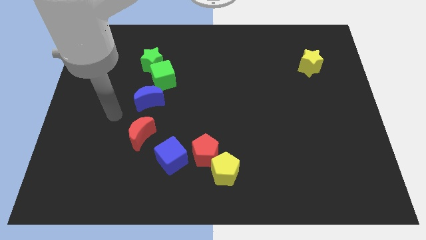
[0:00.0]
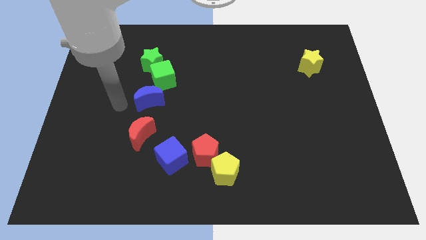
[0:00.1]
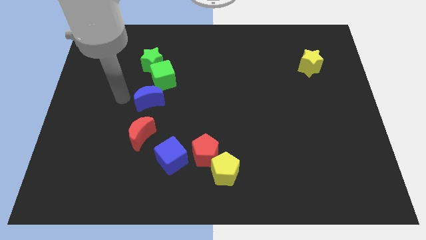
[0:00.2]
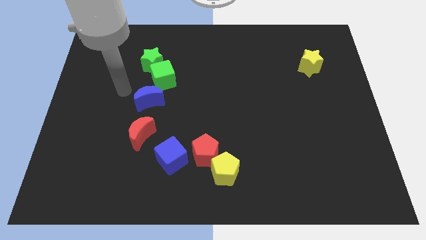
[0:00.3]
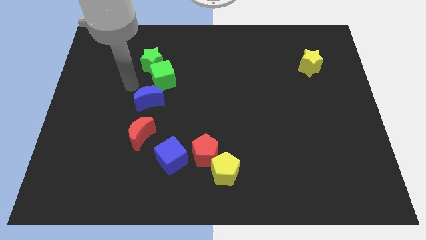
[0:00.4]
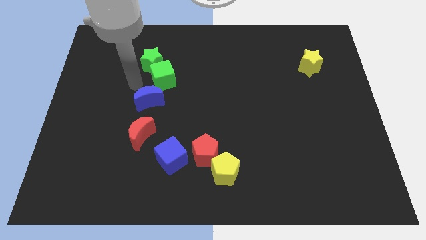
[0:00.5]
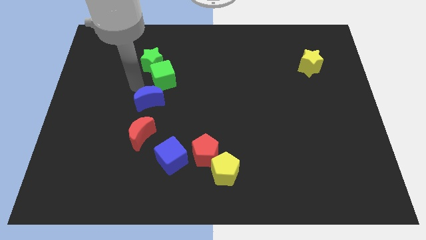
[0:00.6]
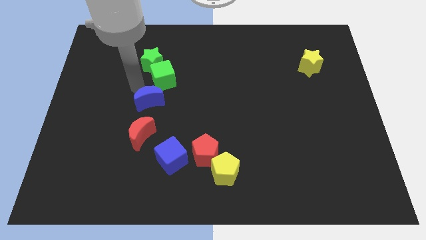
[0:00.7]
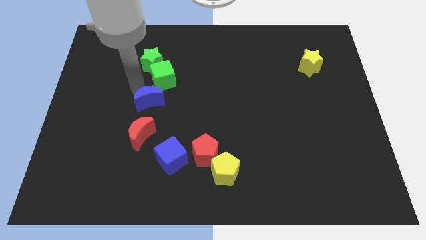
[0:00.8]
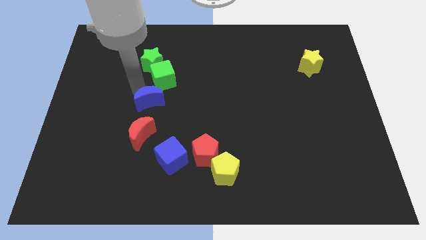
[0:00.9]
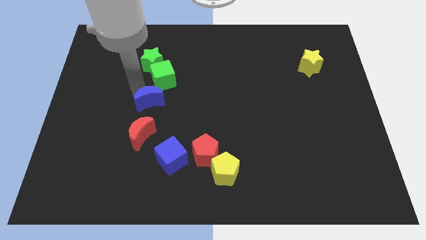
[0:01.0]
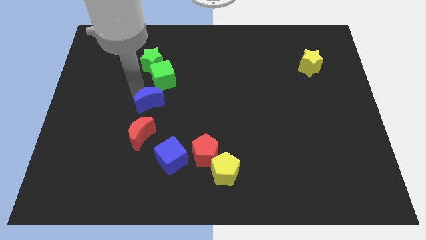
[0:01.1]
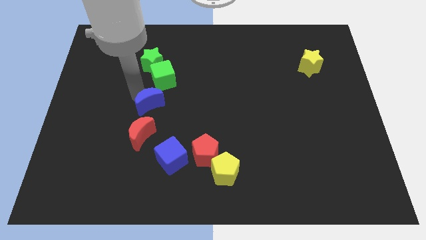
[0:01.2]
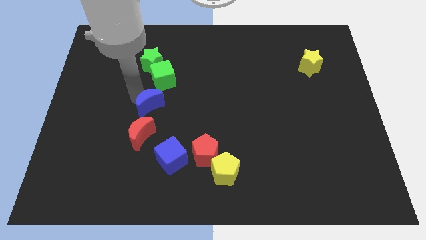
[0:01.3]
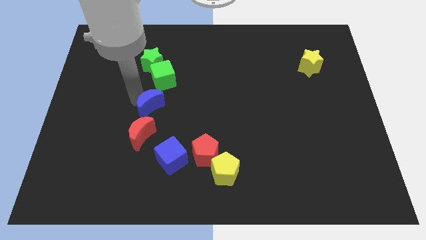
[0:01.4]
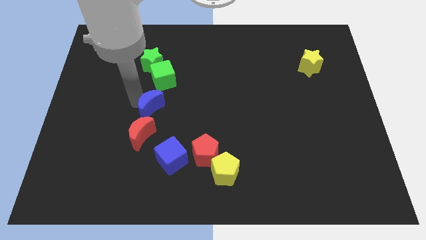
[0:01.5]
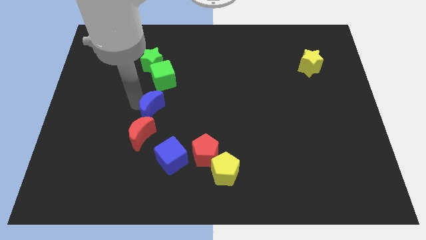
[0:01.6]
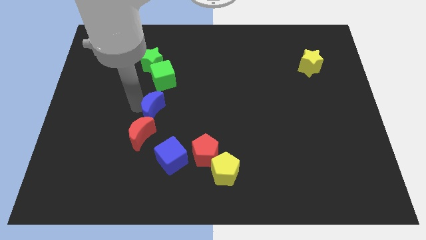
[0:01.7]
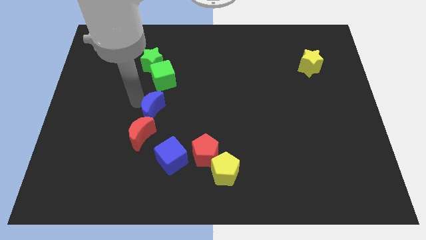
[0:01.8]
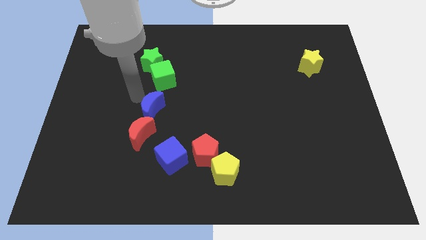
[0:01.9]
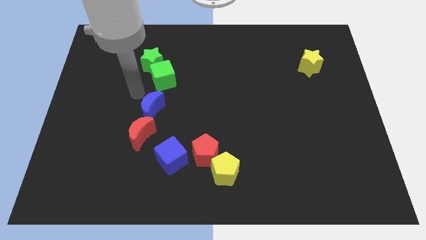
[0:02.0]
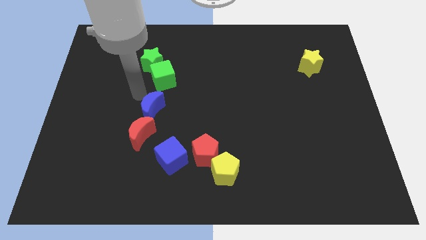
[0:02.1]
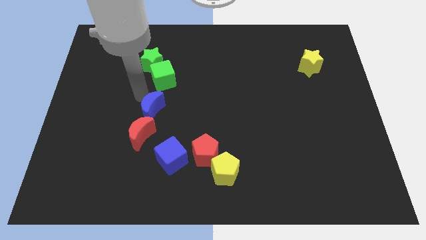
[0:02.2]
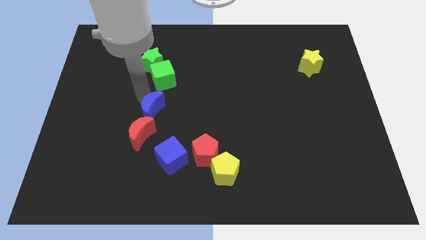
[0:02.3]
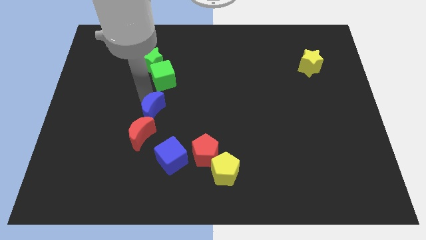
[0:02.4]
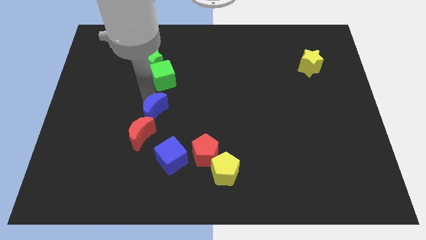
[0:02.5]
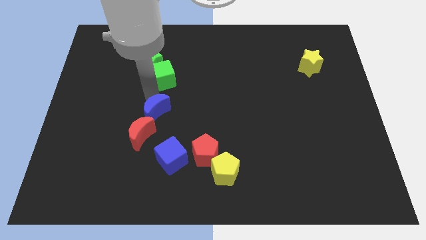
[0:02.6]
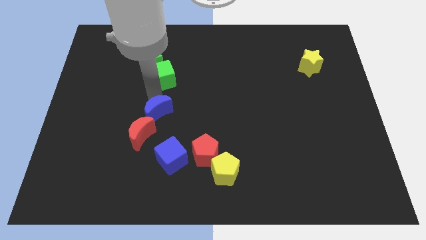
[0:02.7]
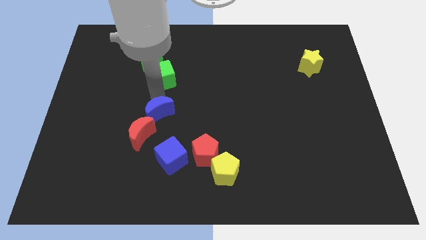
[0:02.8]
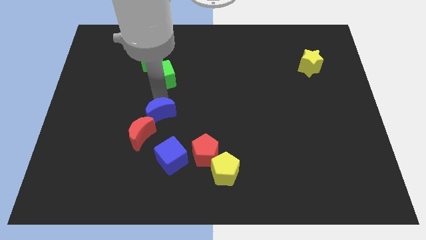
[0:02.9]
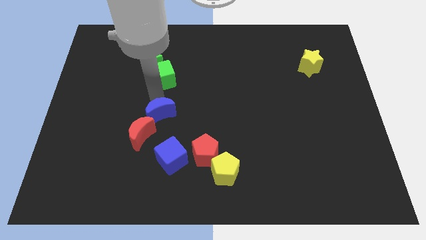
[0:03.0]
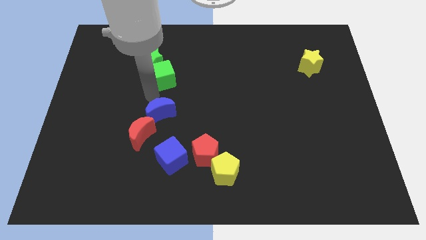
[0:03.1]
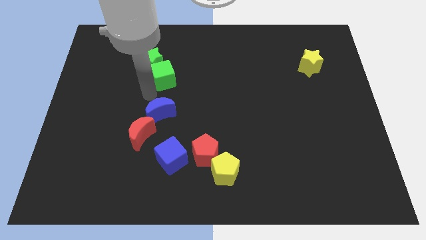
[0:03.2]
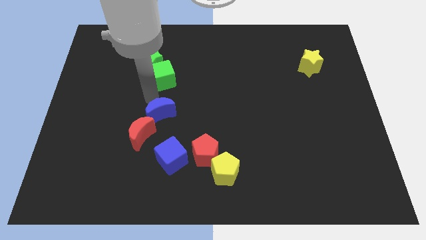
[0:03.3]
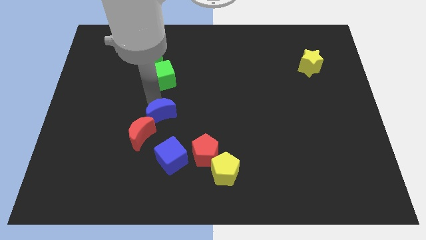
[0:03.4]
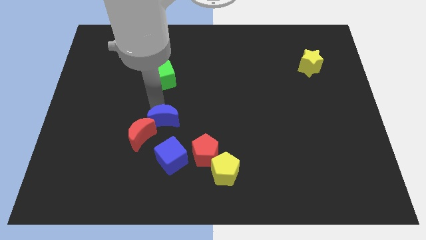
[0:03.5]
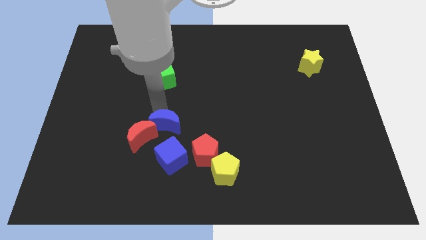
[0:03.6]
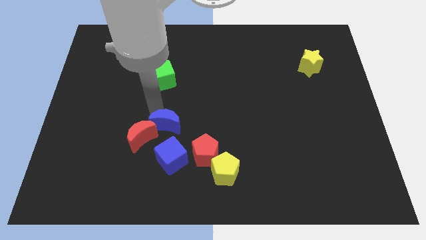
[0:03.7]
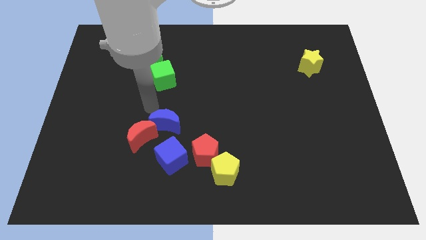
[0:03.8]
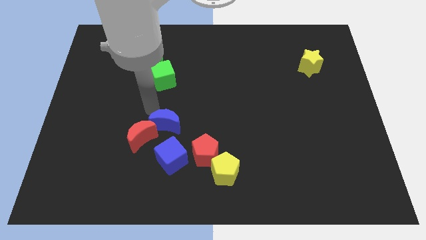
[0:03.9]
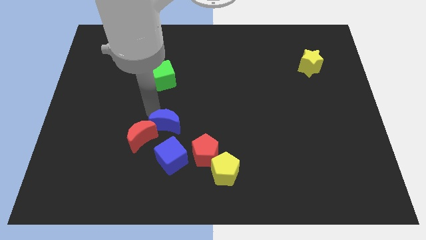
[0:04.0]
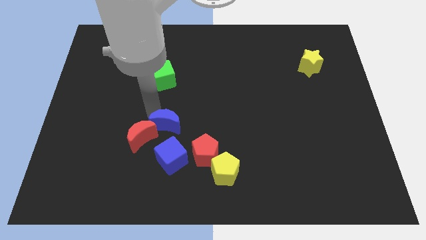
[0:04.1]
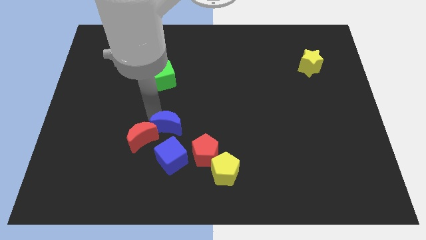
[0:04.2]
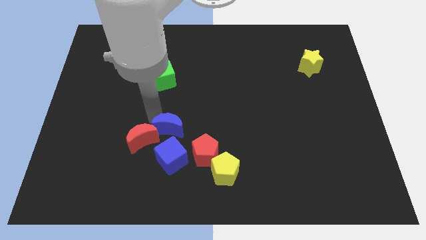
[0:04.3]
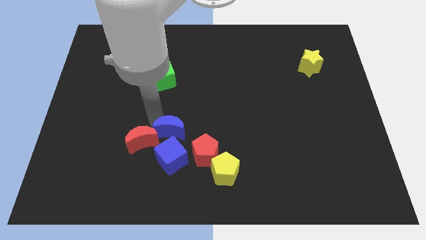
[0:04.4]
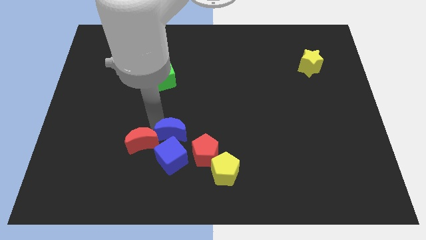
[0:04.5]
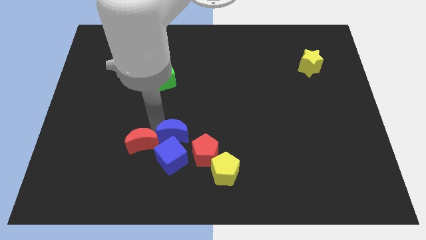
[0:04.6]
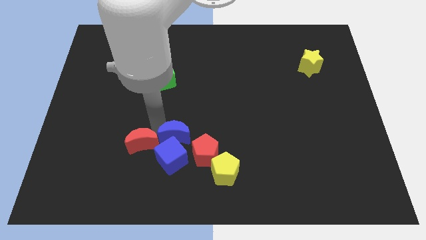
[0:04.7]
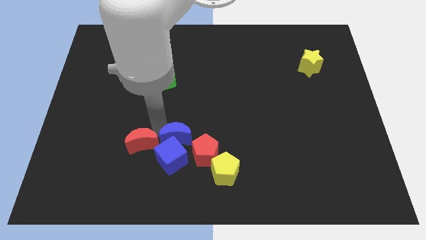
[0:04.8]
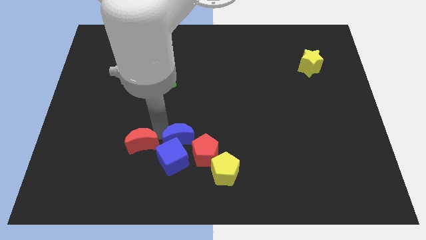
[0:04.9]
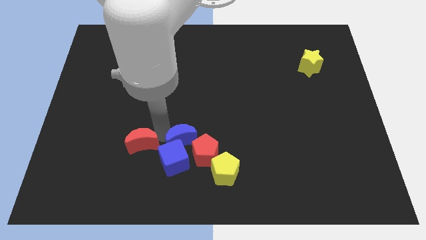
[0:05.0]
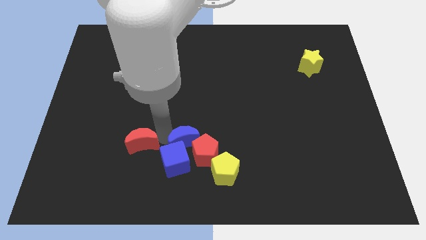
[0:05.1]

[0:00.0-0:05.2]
push the blue moon close to the red pentagon

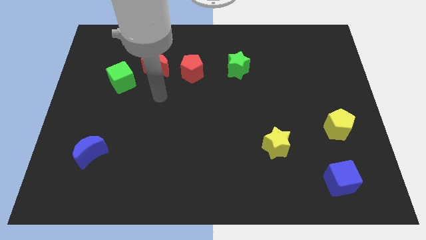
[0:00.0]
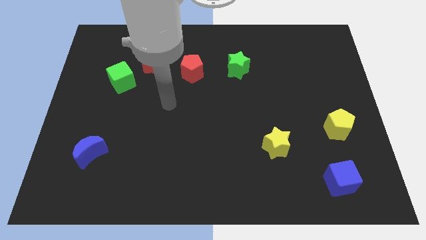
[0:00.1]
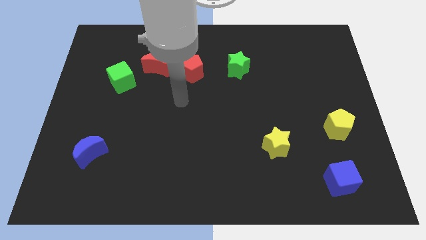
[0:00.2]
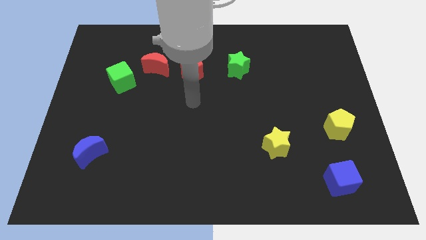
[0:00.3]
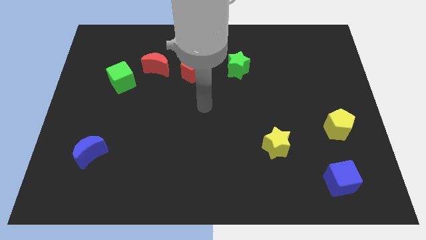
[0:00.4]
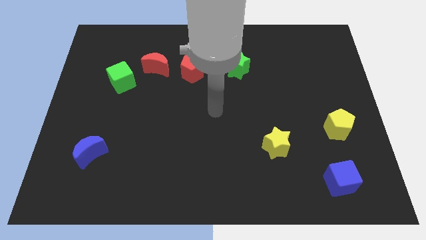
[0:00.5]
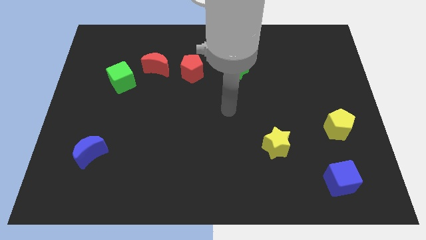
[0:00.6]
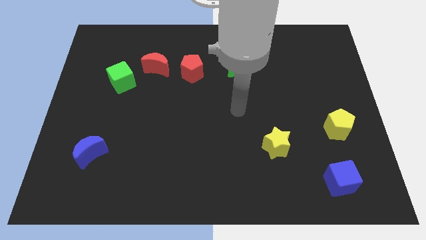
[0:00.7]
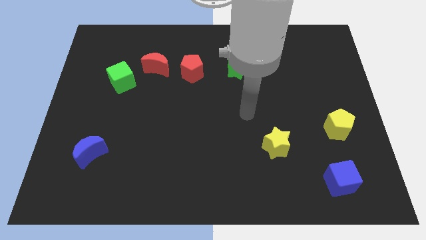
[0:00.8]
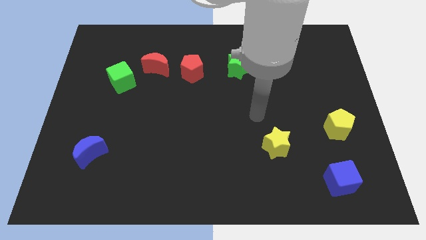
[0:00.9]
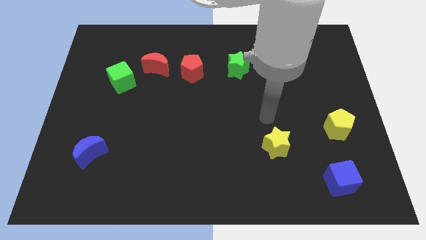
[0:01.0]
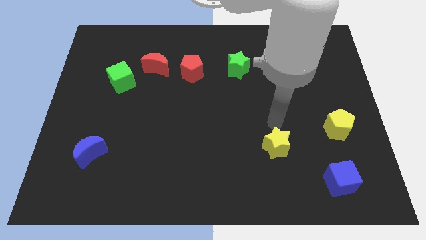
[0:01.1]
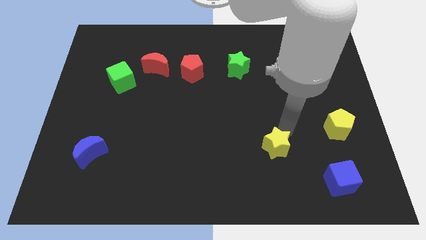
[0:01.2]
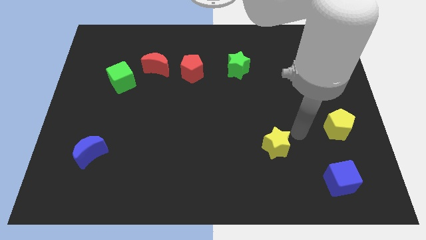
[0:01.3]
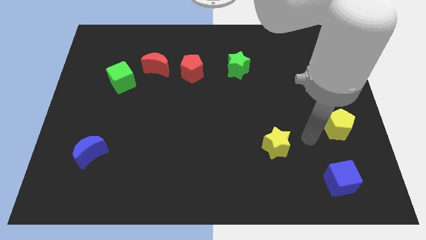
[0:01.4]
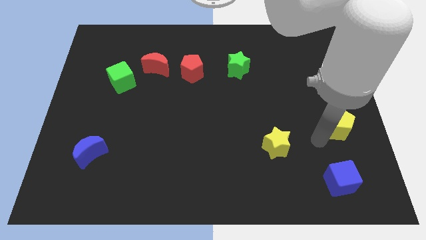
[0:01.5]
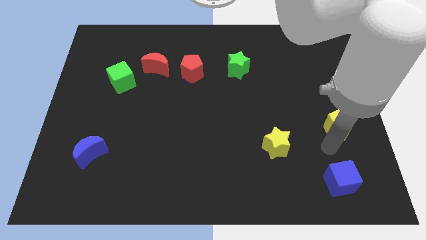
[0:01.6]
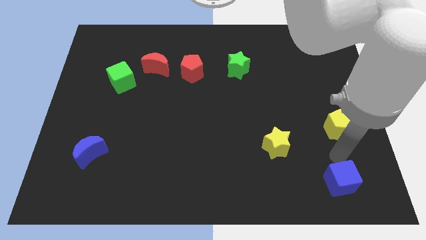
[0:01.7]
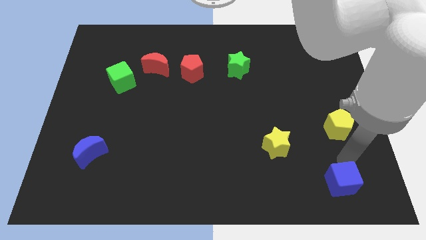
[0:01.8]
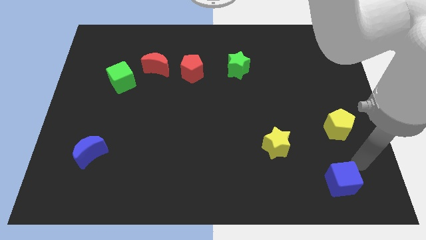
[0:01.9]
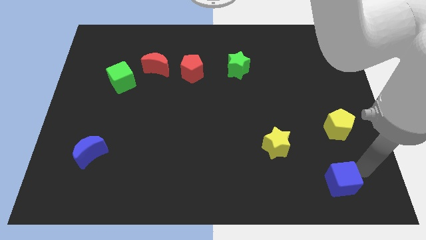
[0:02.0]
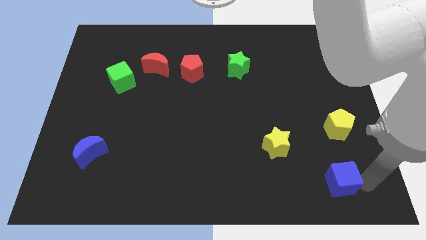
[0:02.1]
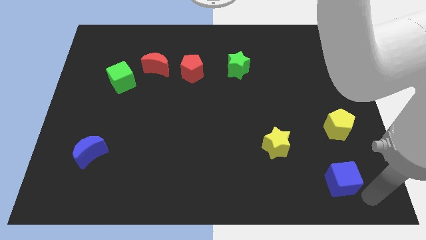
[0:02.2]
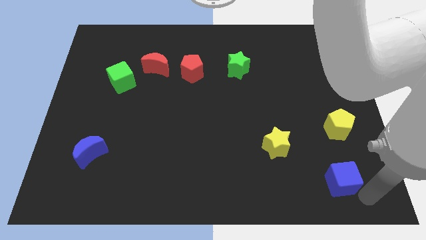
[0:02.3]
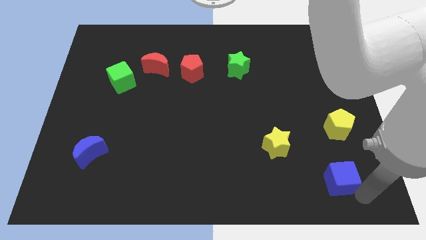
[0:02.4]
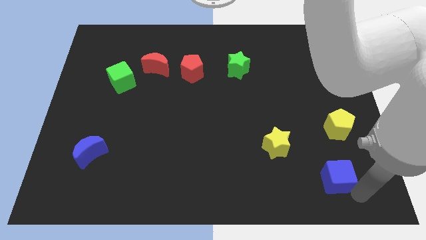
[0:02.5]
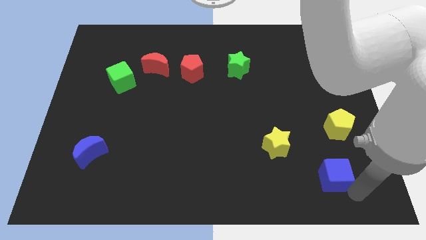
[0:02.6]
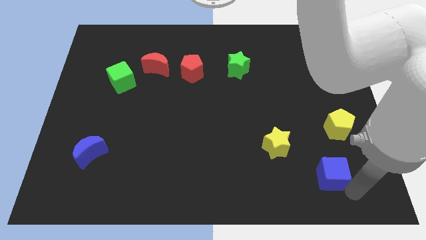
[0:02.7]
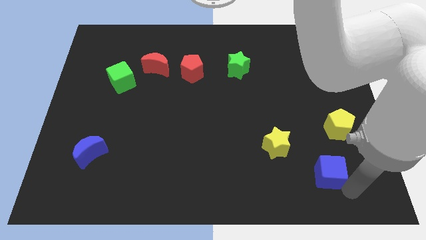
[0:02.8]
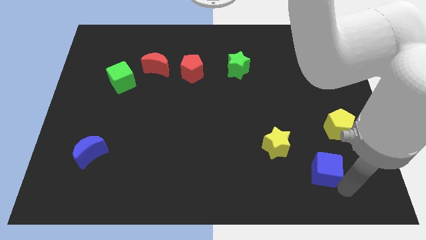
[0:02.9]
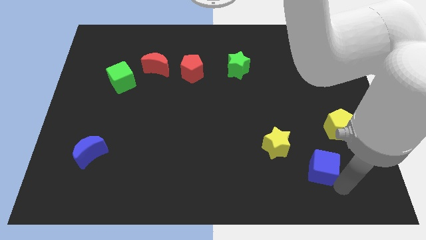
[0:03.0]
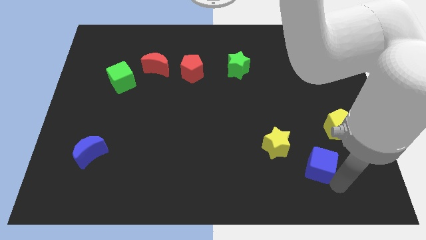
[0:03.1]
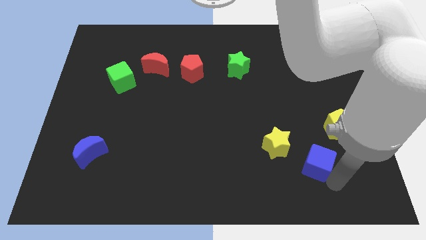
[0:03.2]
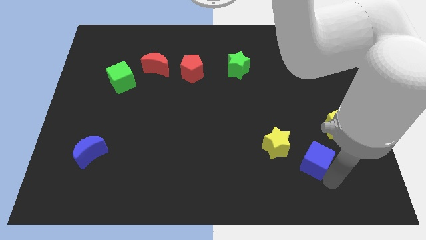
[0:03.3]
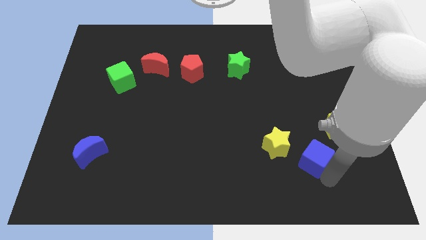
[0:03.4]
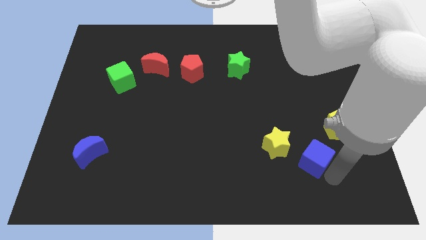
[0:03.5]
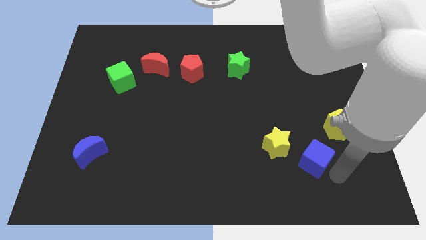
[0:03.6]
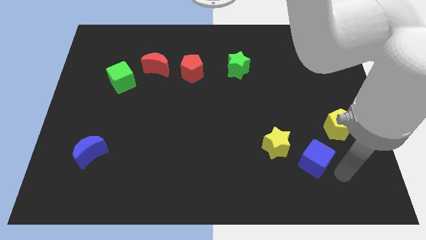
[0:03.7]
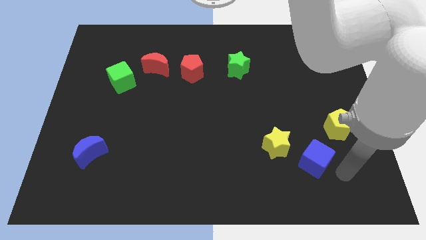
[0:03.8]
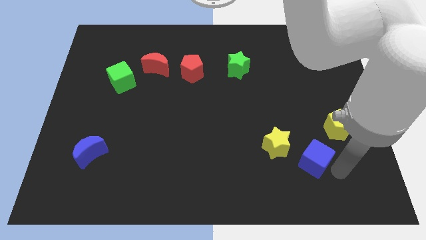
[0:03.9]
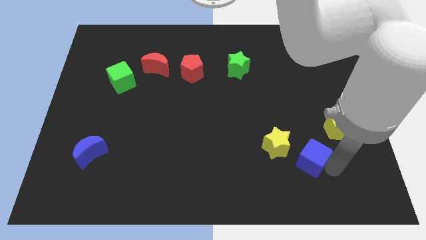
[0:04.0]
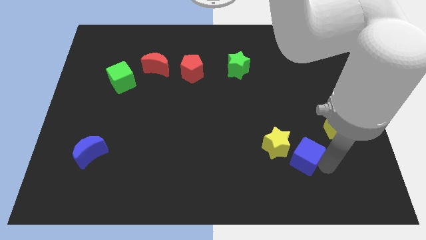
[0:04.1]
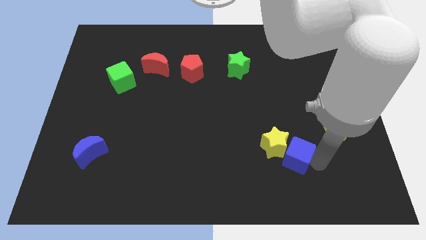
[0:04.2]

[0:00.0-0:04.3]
move the blue cube close to the yellow star
